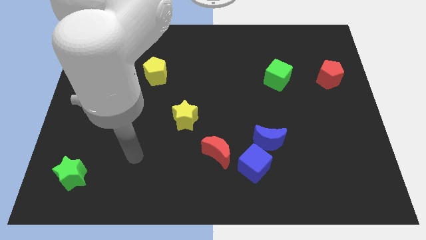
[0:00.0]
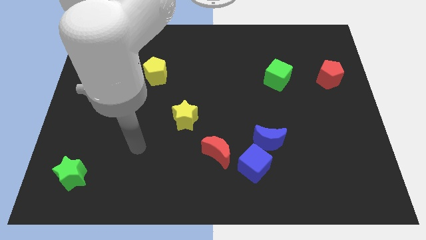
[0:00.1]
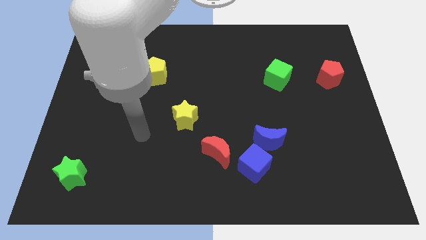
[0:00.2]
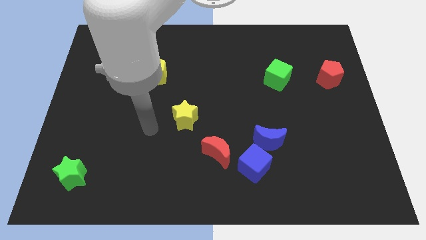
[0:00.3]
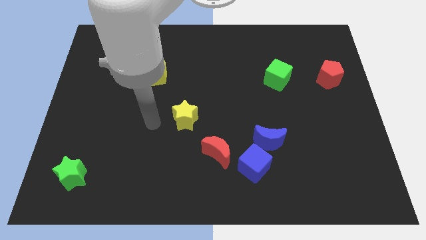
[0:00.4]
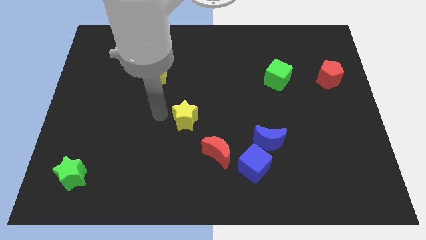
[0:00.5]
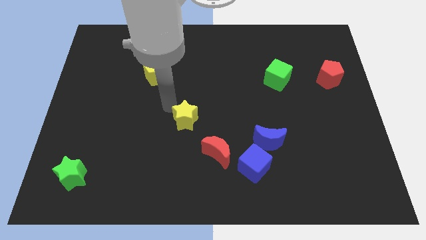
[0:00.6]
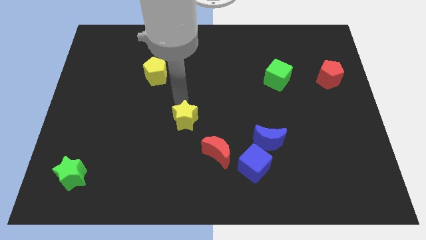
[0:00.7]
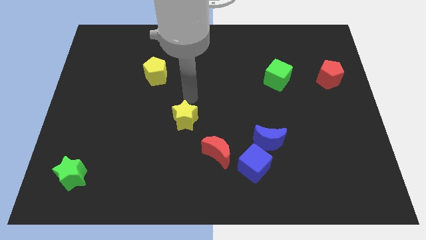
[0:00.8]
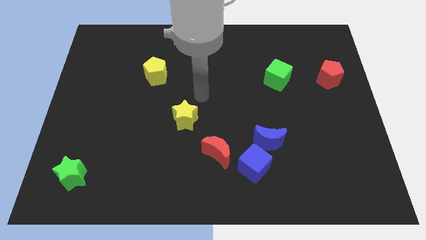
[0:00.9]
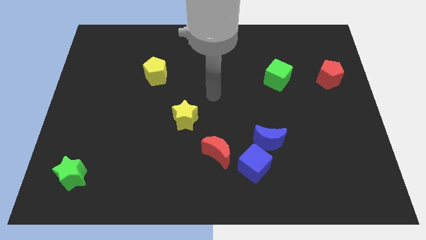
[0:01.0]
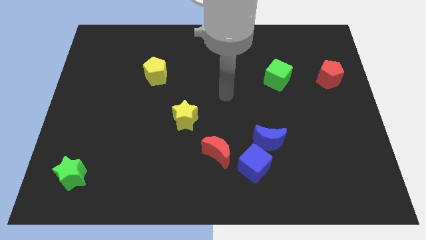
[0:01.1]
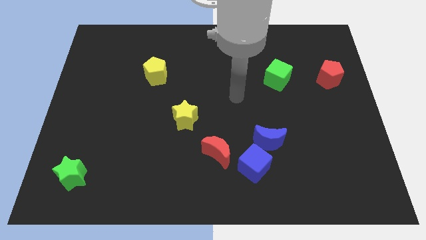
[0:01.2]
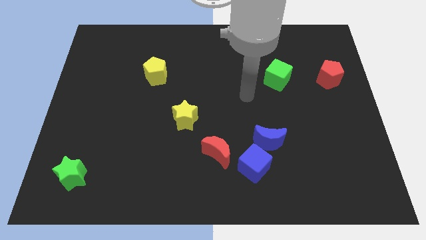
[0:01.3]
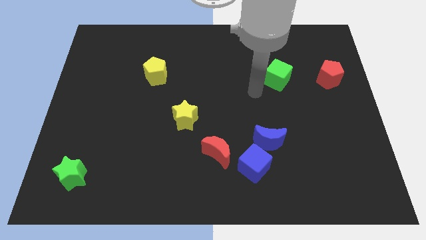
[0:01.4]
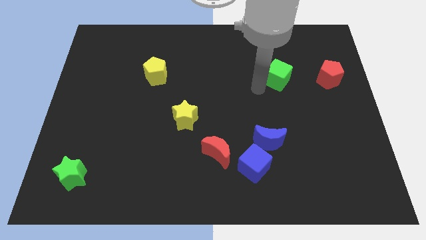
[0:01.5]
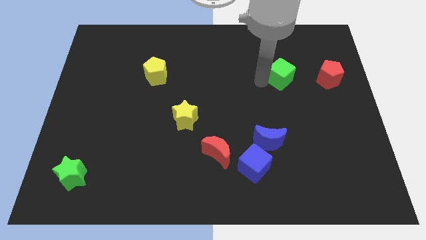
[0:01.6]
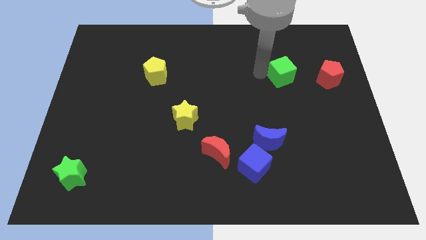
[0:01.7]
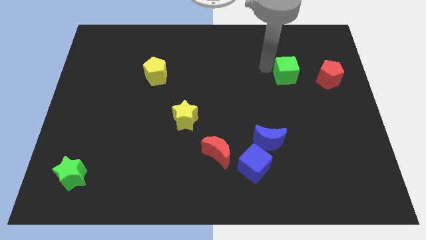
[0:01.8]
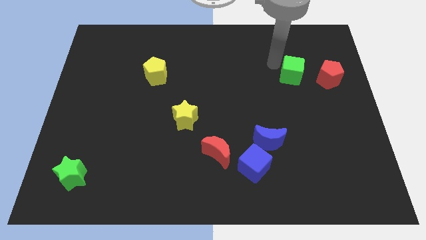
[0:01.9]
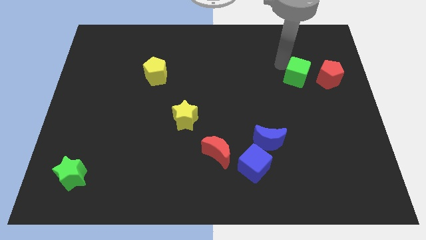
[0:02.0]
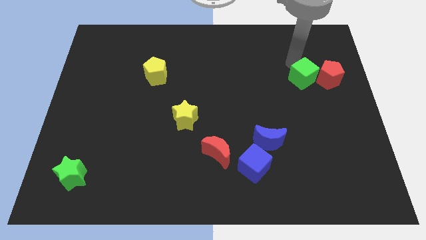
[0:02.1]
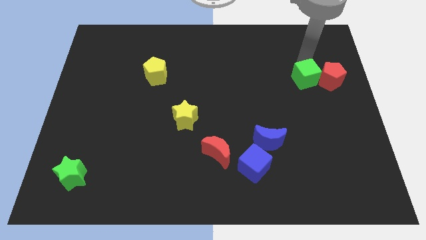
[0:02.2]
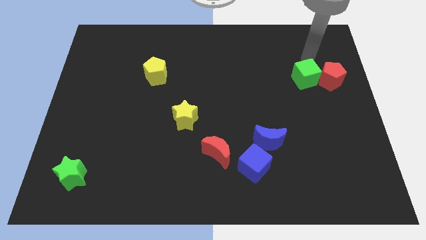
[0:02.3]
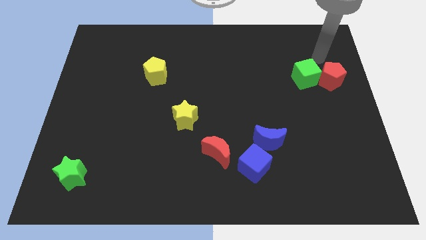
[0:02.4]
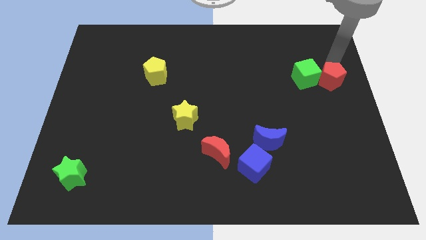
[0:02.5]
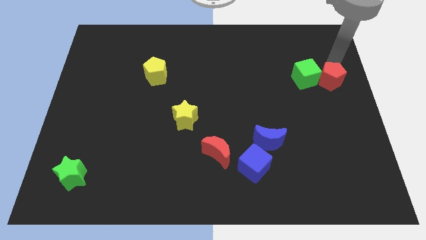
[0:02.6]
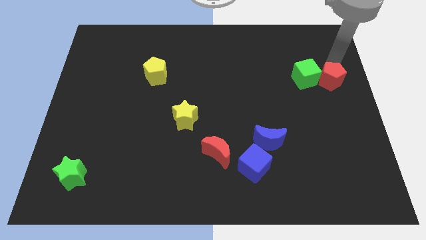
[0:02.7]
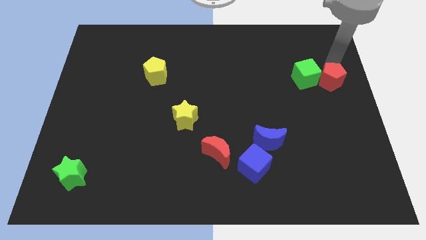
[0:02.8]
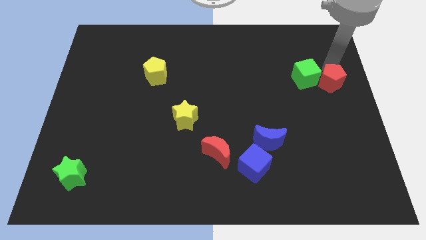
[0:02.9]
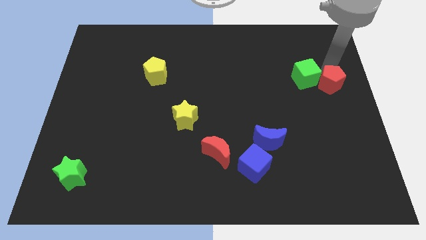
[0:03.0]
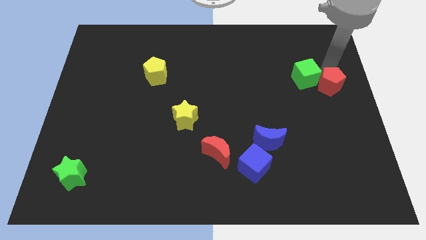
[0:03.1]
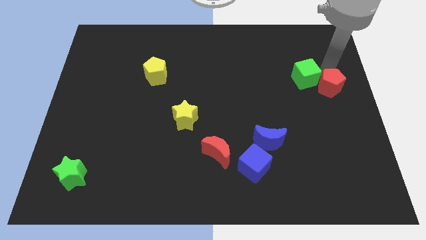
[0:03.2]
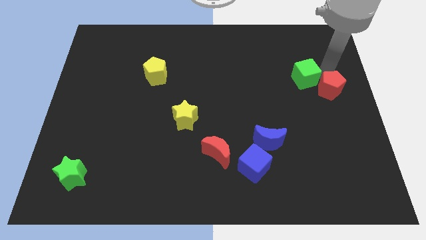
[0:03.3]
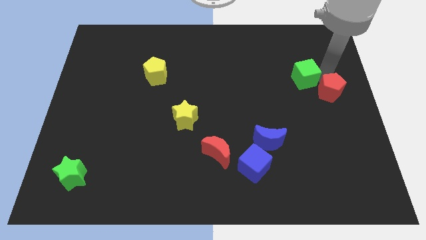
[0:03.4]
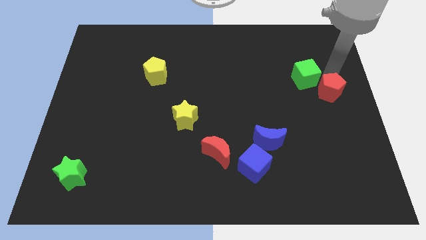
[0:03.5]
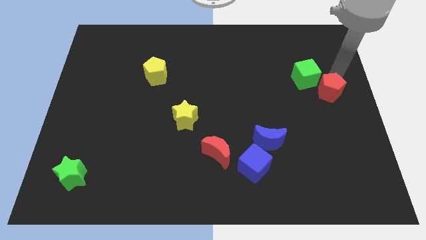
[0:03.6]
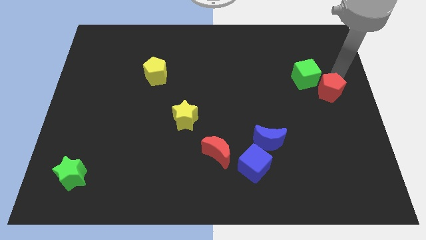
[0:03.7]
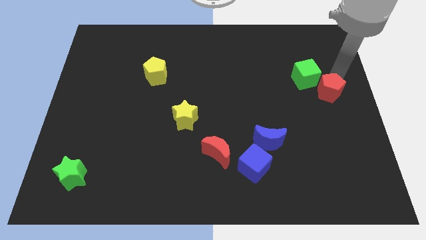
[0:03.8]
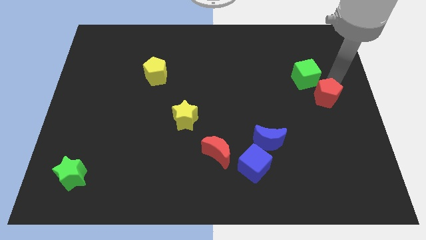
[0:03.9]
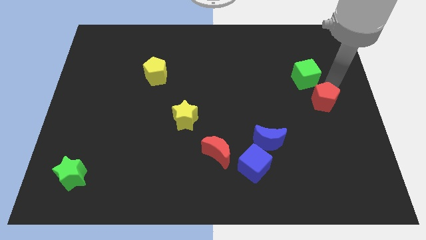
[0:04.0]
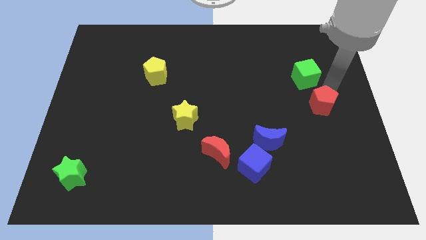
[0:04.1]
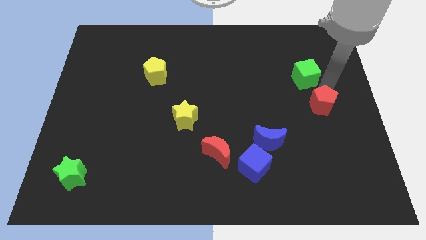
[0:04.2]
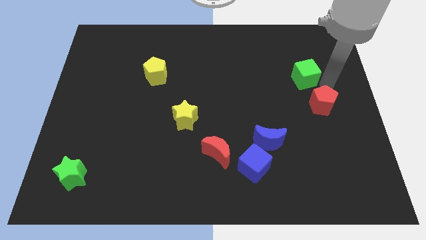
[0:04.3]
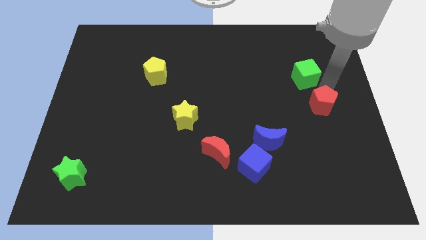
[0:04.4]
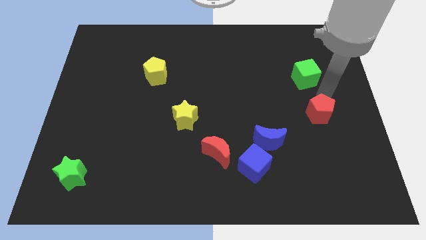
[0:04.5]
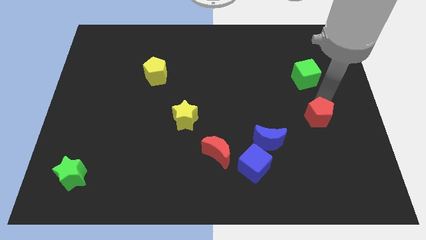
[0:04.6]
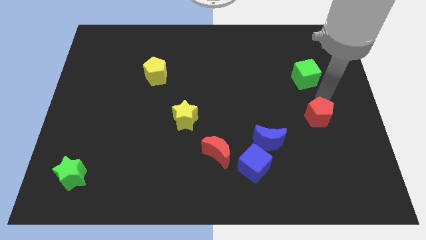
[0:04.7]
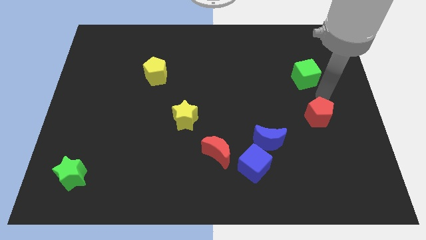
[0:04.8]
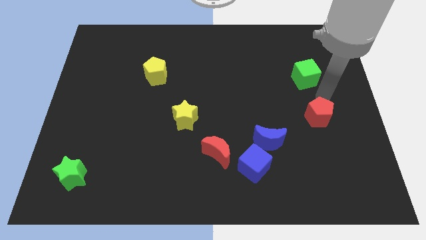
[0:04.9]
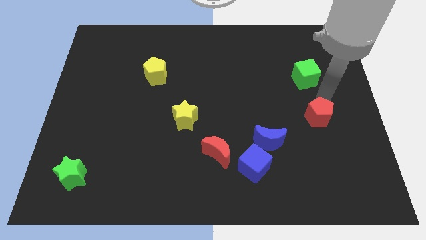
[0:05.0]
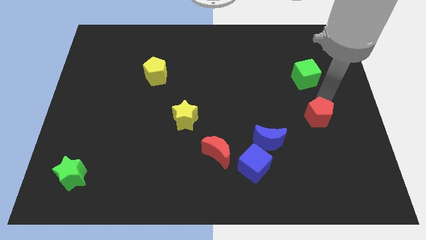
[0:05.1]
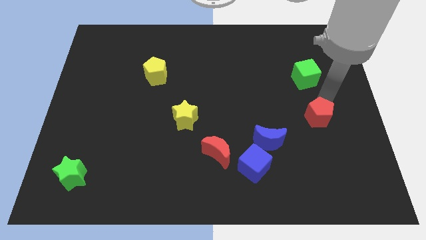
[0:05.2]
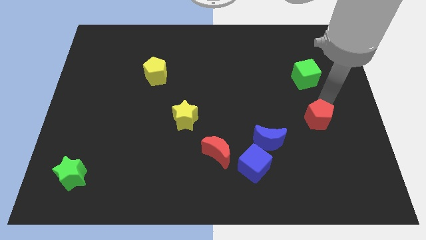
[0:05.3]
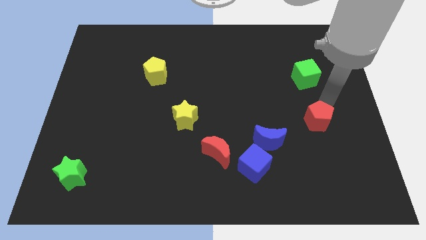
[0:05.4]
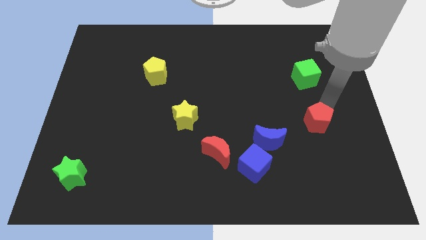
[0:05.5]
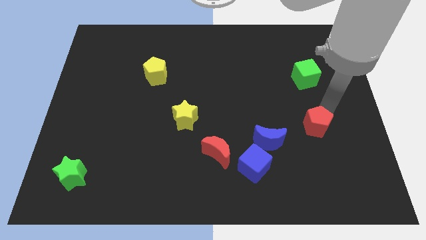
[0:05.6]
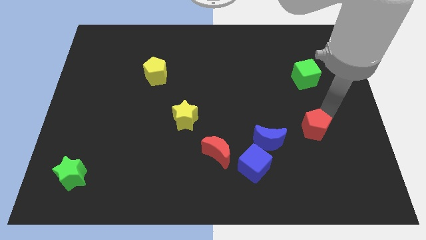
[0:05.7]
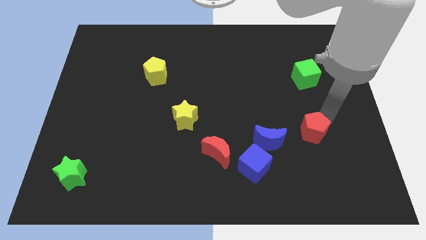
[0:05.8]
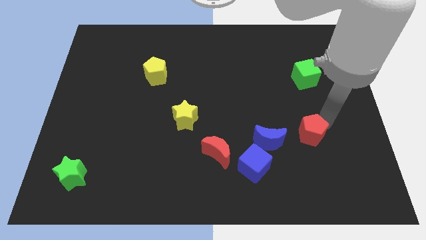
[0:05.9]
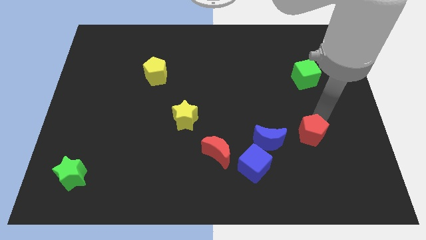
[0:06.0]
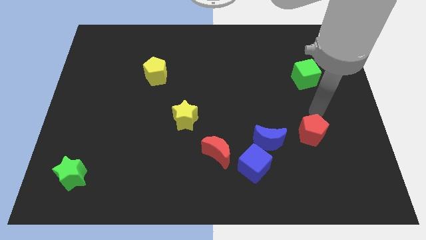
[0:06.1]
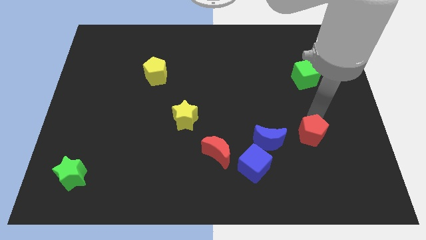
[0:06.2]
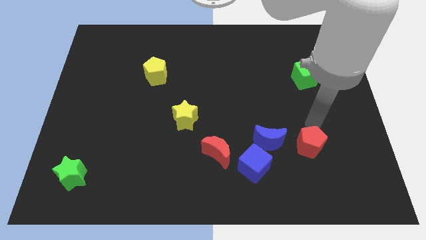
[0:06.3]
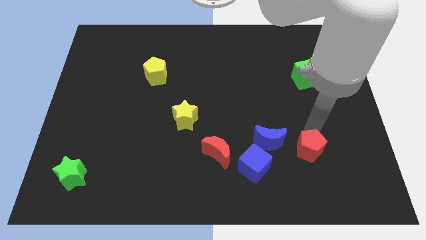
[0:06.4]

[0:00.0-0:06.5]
push the red pentagon right of the blue cube

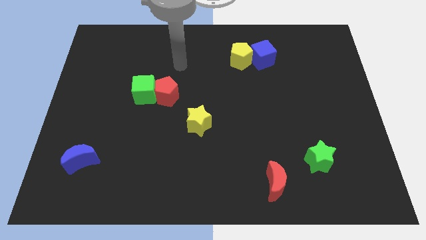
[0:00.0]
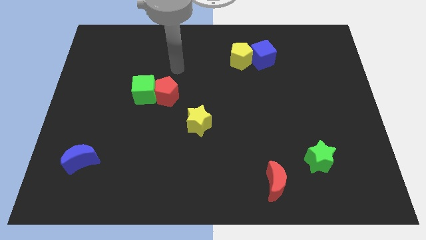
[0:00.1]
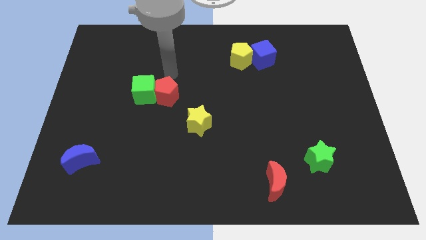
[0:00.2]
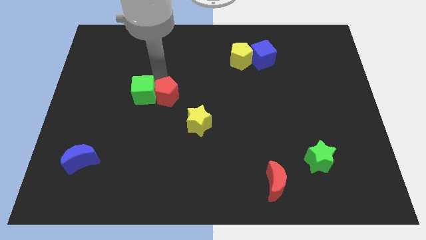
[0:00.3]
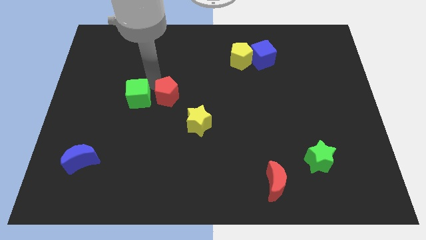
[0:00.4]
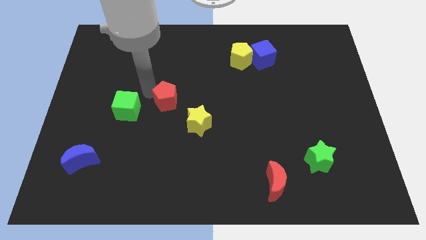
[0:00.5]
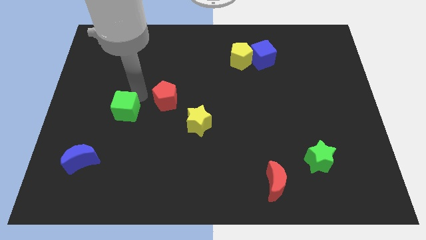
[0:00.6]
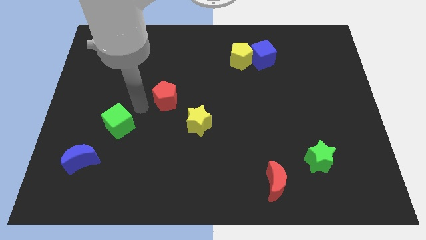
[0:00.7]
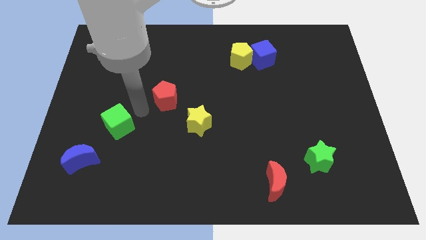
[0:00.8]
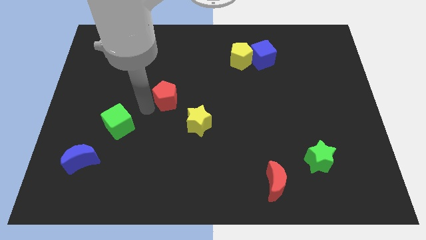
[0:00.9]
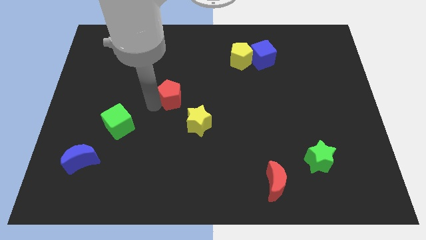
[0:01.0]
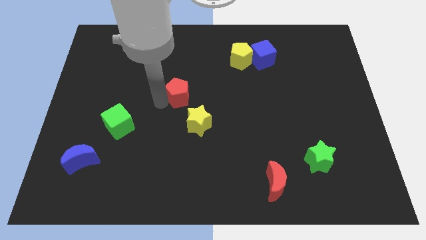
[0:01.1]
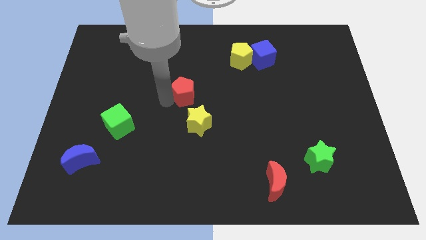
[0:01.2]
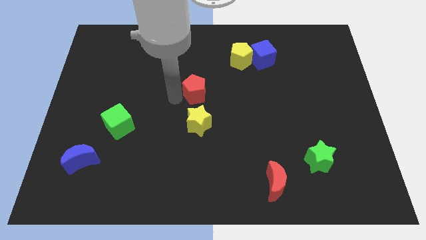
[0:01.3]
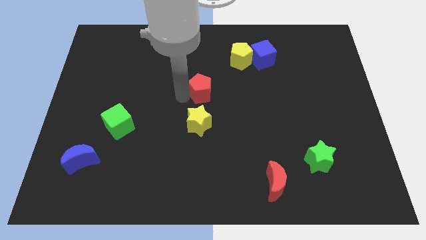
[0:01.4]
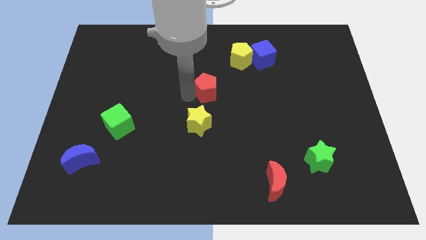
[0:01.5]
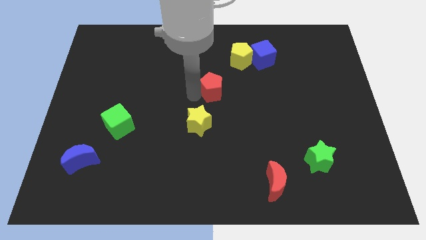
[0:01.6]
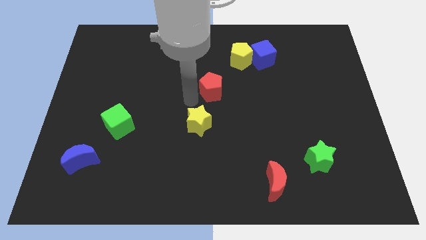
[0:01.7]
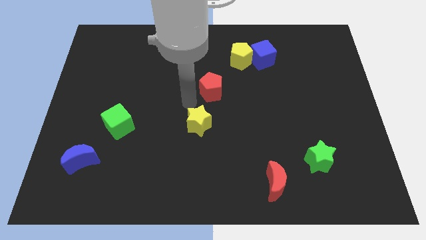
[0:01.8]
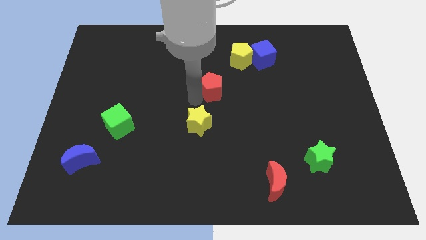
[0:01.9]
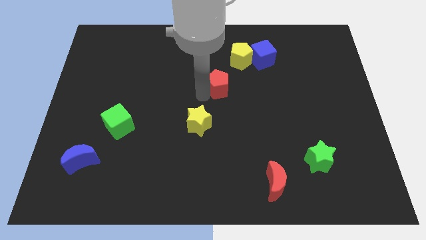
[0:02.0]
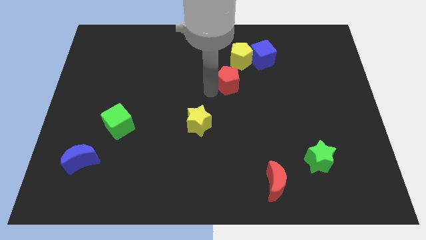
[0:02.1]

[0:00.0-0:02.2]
move the red pentagon to the bottom left of the blue cube
